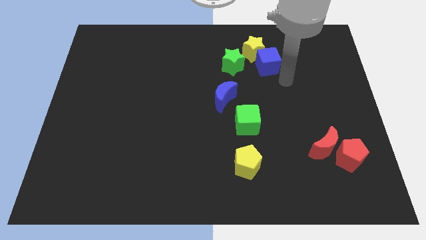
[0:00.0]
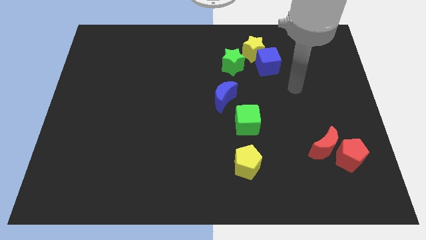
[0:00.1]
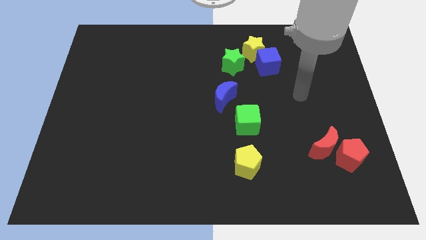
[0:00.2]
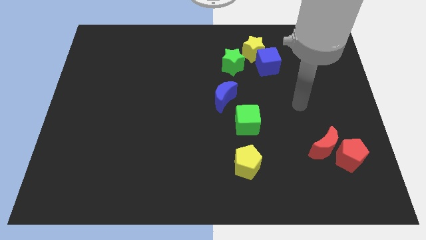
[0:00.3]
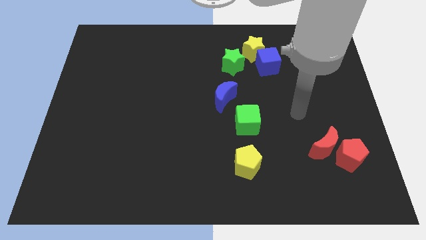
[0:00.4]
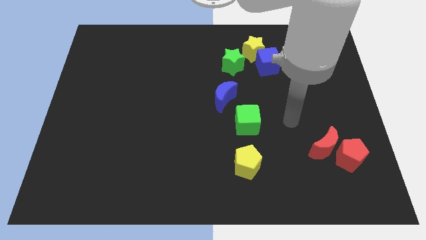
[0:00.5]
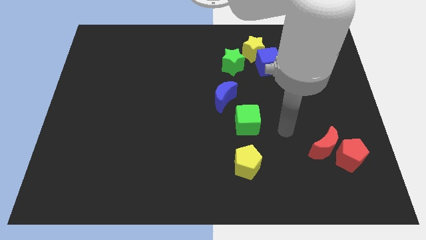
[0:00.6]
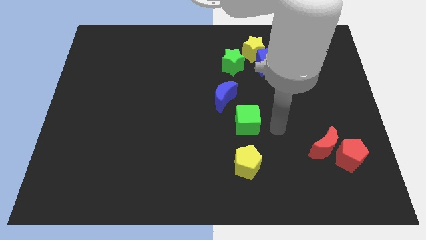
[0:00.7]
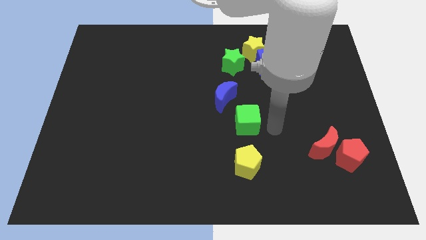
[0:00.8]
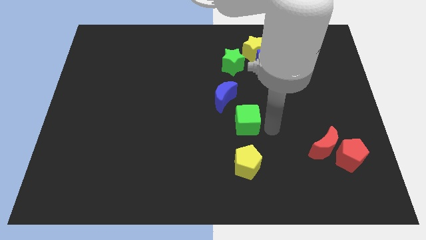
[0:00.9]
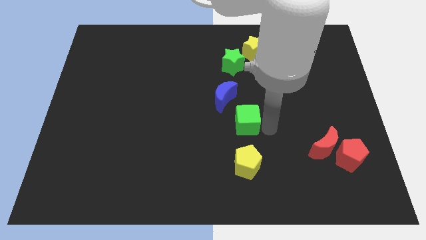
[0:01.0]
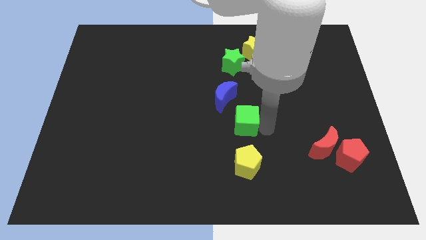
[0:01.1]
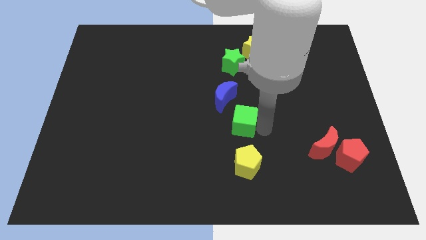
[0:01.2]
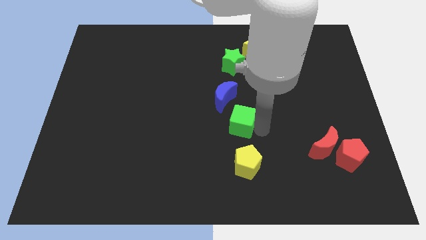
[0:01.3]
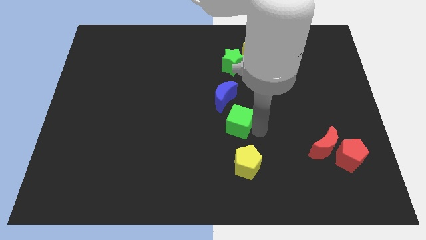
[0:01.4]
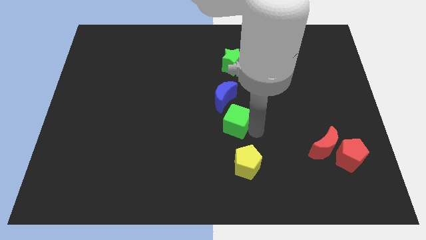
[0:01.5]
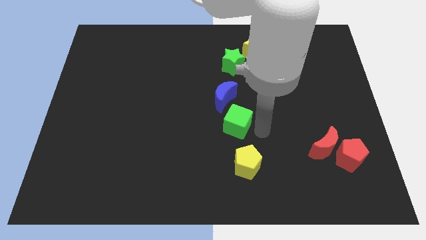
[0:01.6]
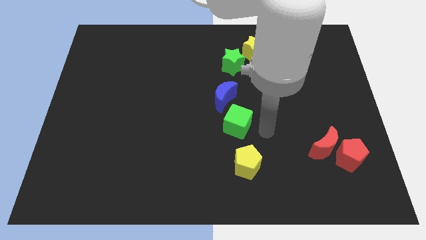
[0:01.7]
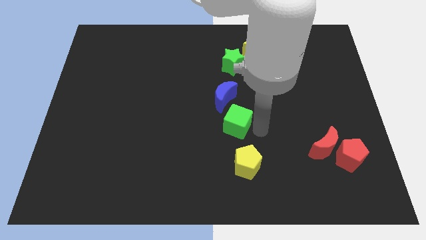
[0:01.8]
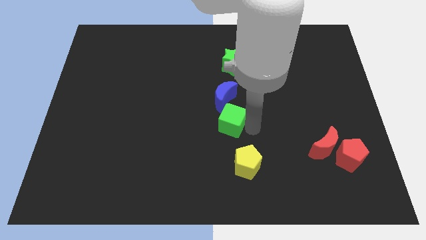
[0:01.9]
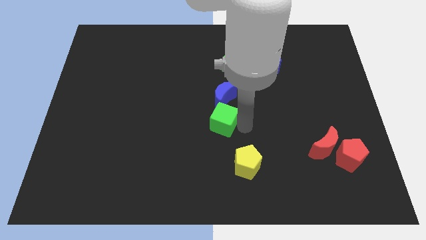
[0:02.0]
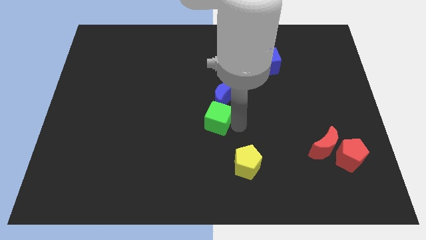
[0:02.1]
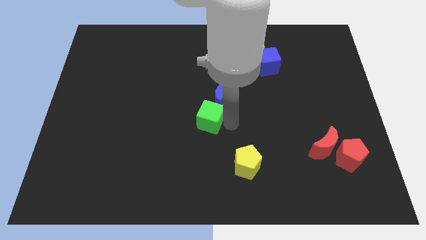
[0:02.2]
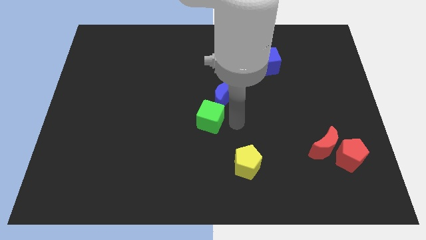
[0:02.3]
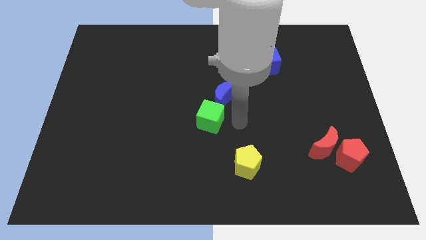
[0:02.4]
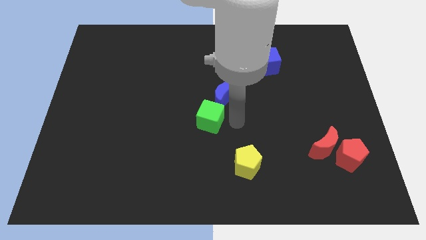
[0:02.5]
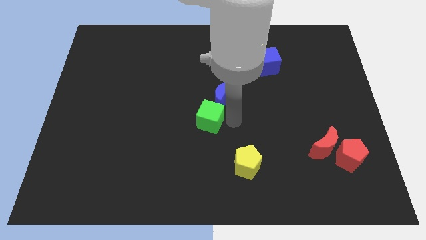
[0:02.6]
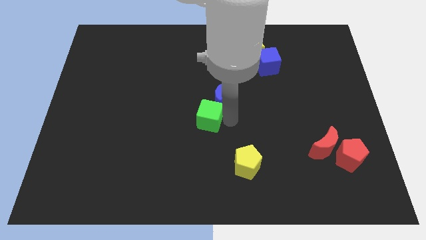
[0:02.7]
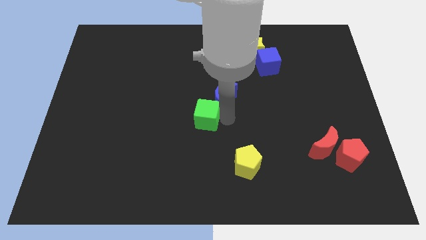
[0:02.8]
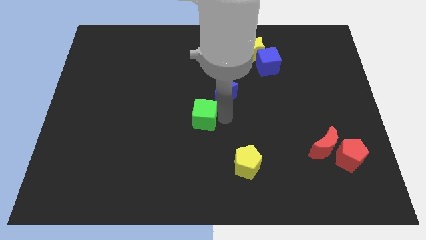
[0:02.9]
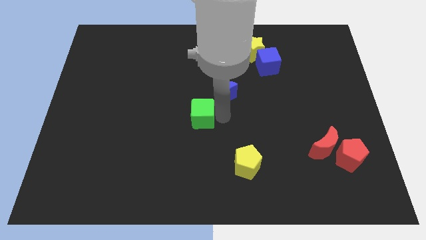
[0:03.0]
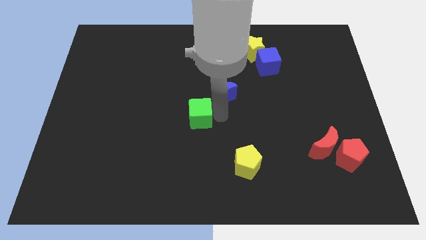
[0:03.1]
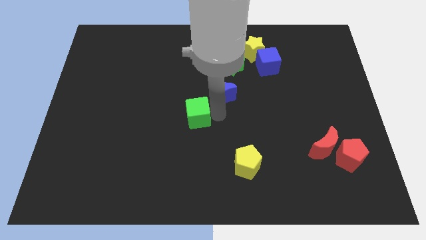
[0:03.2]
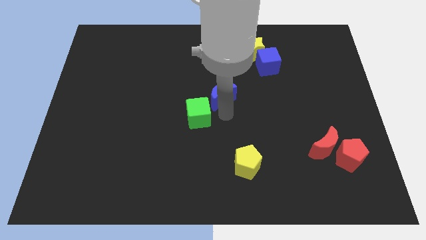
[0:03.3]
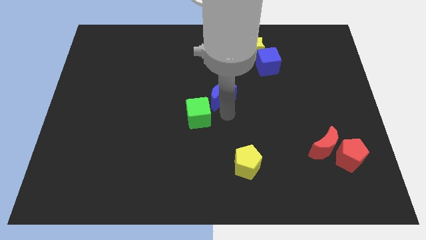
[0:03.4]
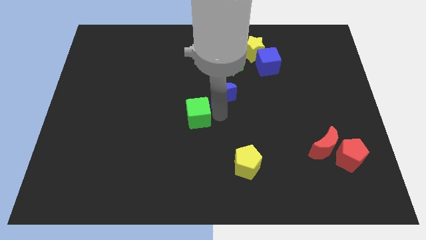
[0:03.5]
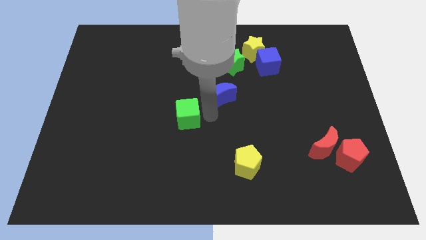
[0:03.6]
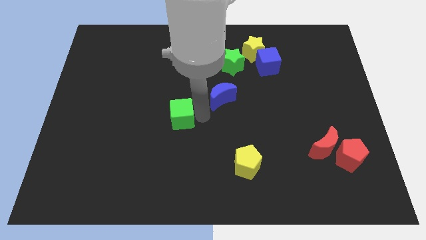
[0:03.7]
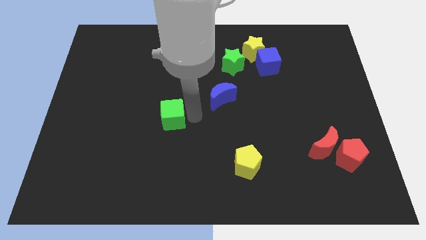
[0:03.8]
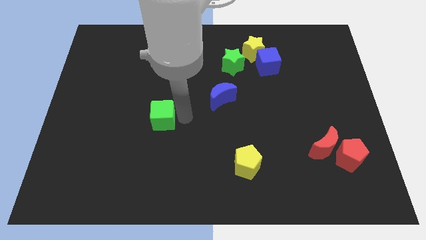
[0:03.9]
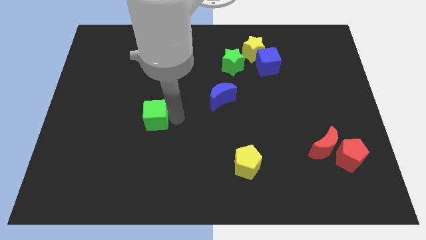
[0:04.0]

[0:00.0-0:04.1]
slide the green cube left

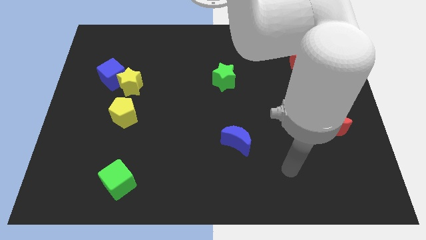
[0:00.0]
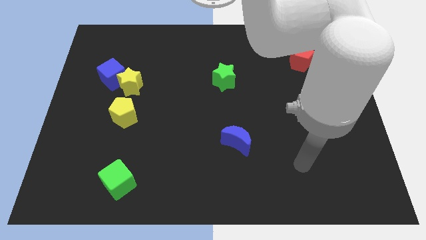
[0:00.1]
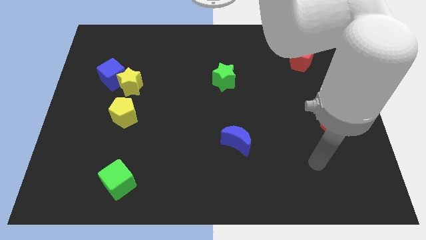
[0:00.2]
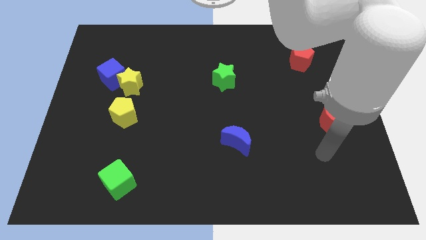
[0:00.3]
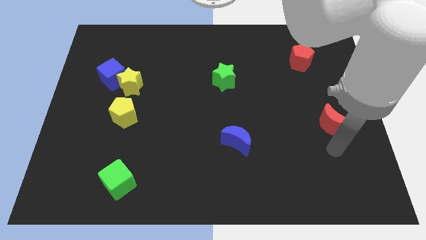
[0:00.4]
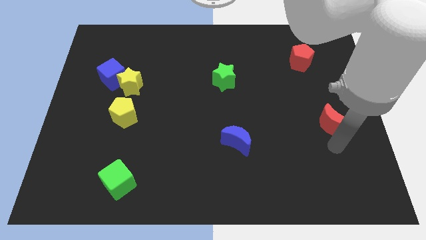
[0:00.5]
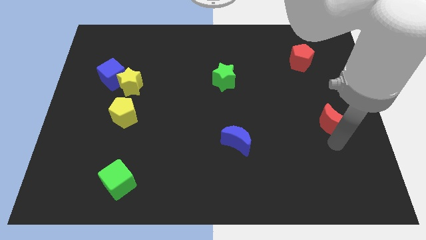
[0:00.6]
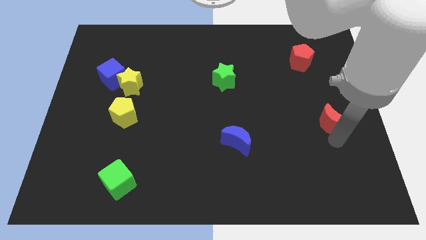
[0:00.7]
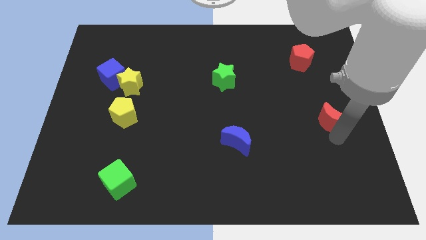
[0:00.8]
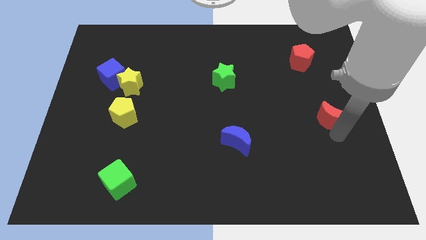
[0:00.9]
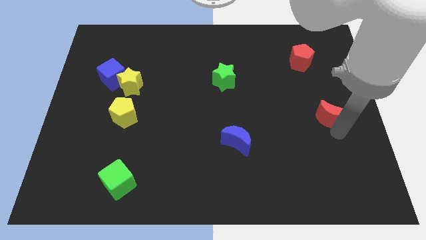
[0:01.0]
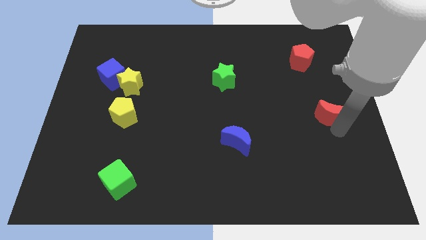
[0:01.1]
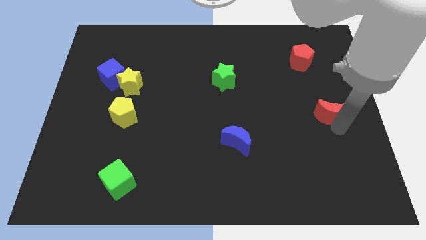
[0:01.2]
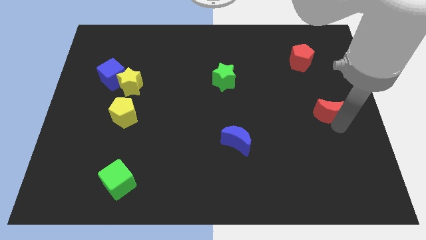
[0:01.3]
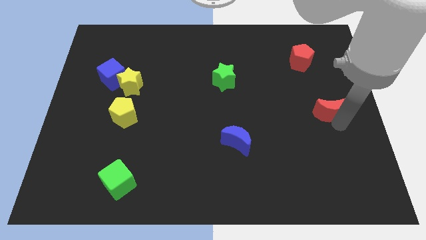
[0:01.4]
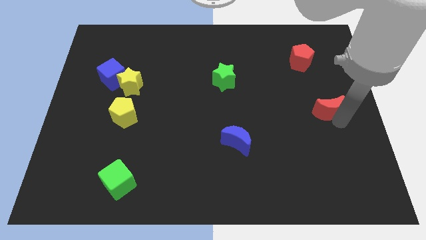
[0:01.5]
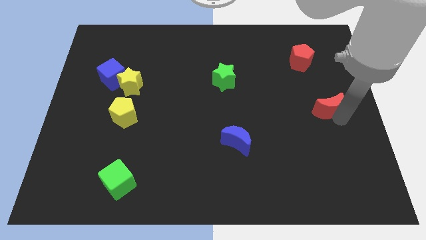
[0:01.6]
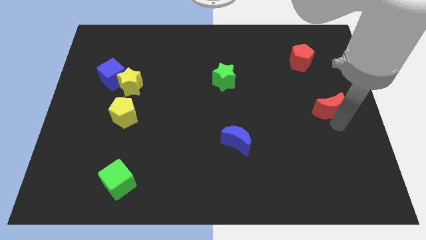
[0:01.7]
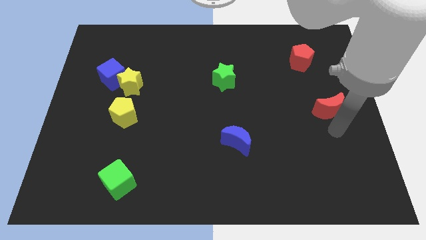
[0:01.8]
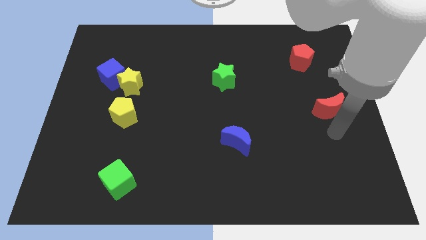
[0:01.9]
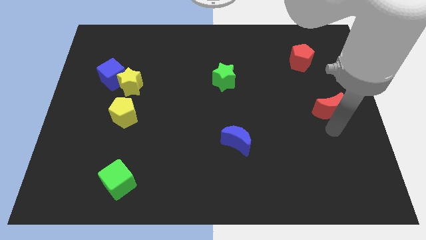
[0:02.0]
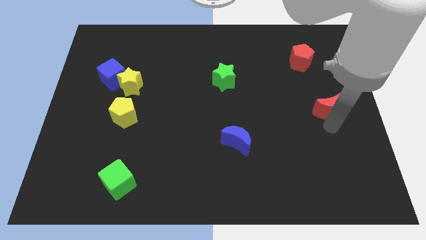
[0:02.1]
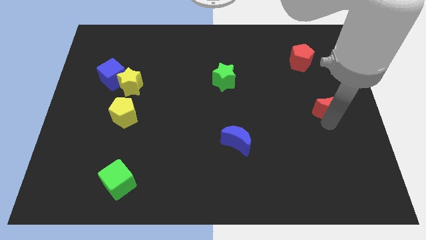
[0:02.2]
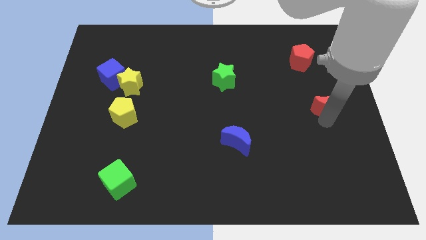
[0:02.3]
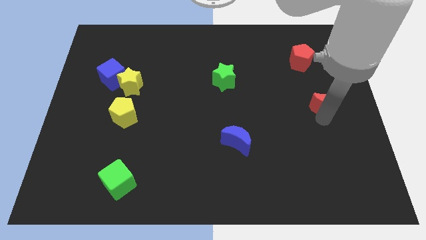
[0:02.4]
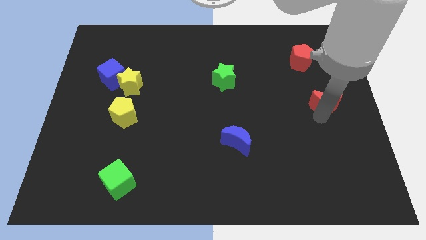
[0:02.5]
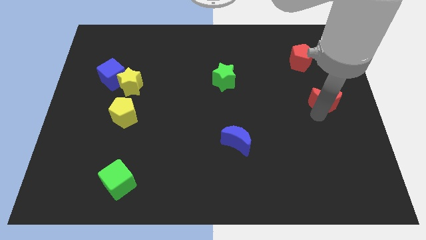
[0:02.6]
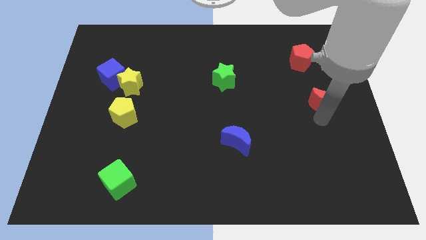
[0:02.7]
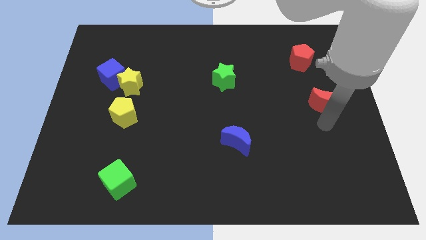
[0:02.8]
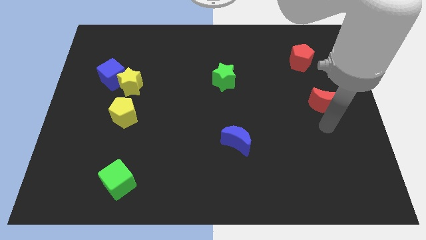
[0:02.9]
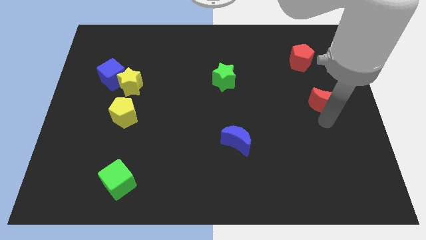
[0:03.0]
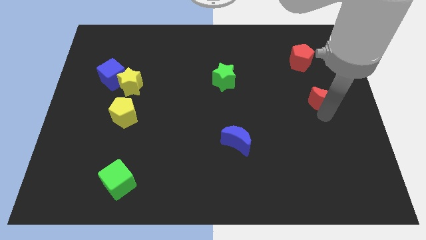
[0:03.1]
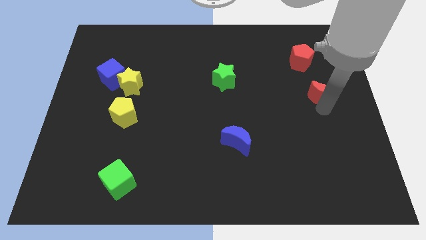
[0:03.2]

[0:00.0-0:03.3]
move the red moon a little up

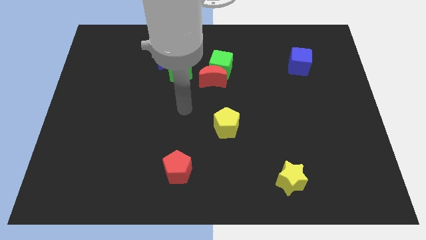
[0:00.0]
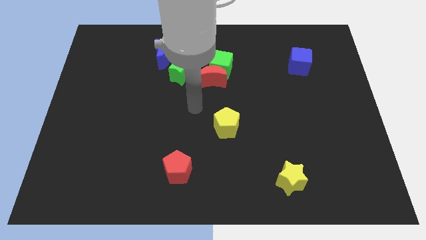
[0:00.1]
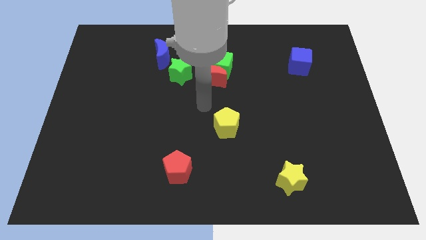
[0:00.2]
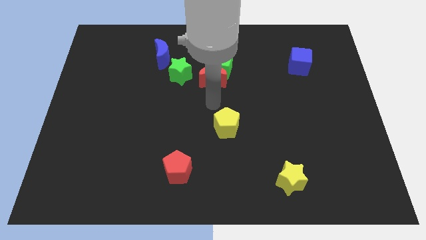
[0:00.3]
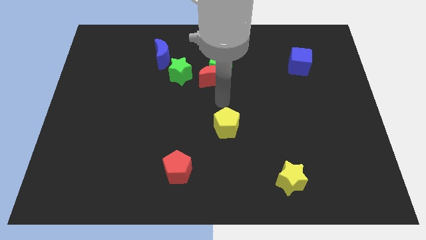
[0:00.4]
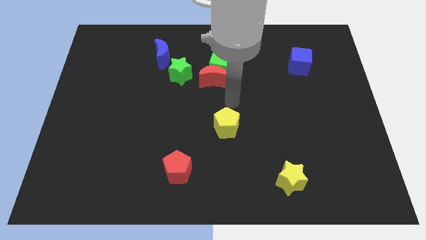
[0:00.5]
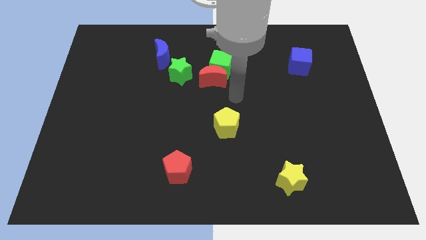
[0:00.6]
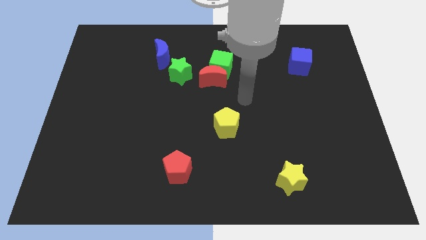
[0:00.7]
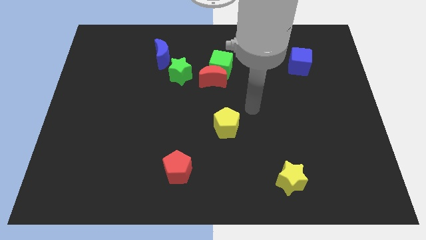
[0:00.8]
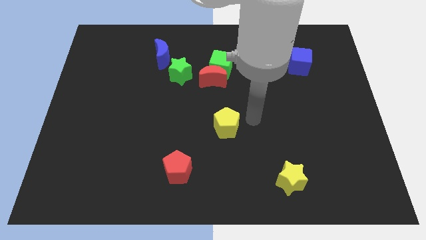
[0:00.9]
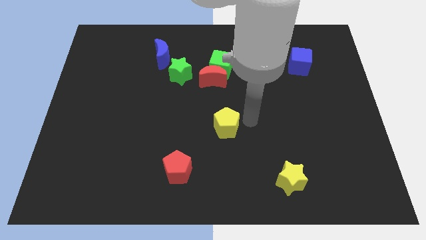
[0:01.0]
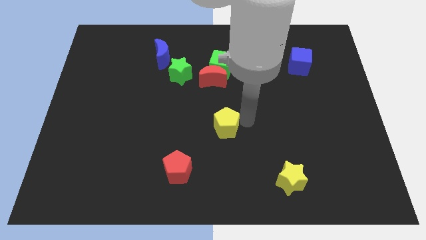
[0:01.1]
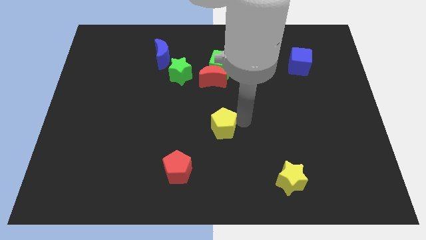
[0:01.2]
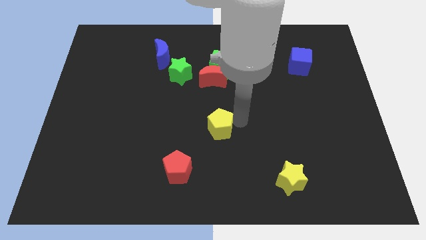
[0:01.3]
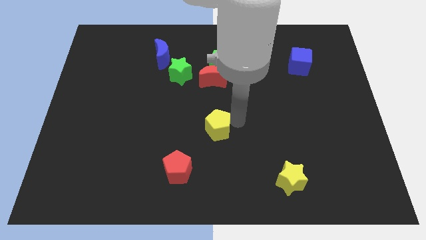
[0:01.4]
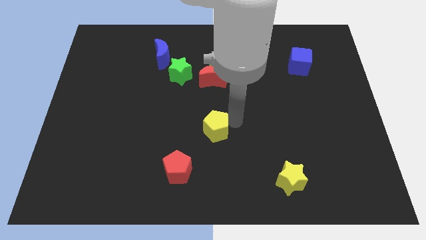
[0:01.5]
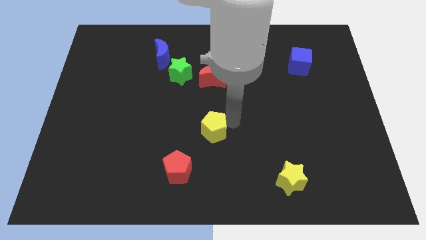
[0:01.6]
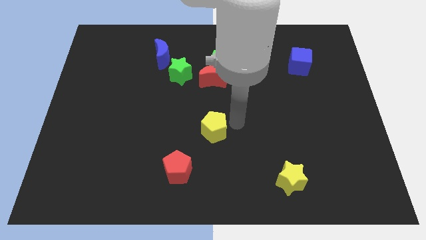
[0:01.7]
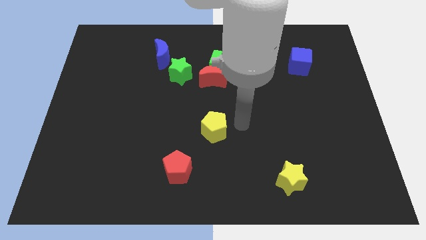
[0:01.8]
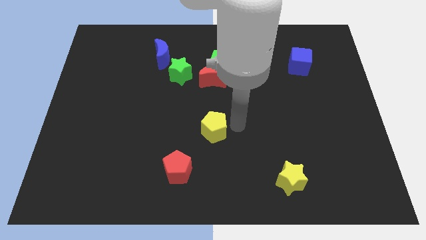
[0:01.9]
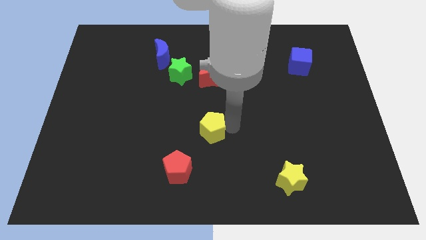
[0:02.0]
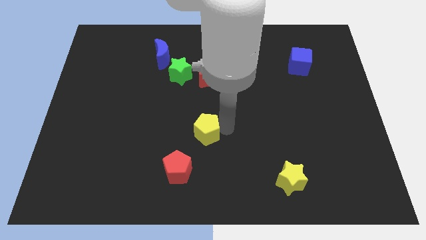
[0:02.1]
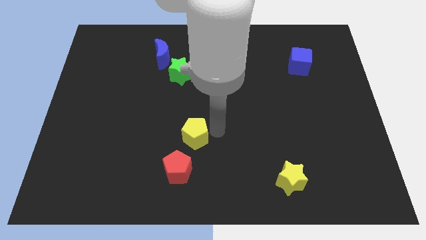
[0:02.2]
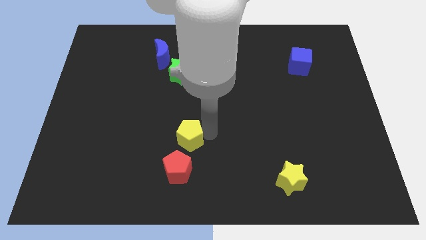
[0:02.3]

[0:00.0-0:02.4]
slide the yellow pentagon down and left diagonally a little bit
